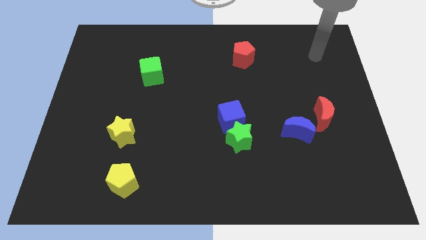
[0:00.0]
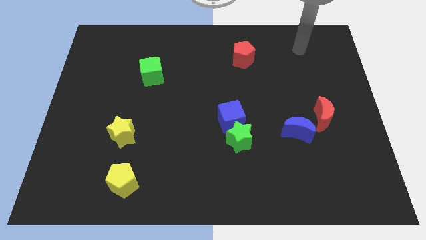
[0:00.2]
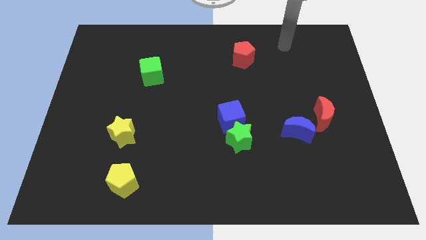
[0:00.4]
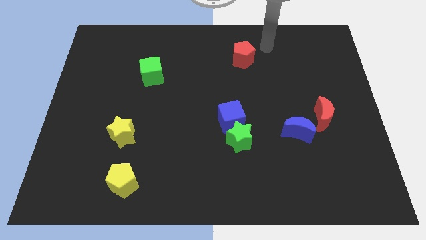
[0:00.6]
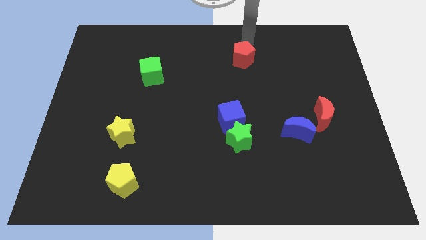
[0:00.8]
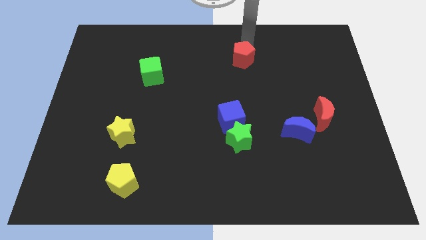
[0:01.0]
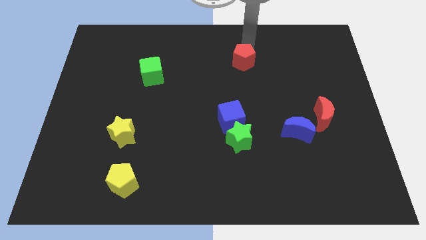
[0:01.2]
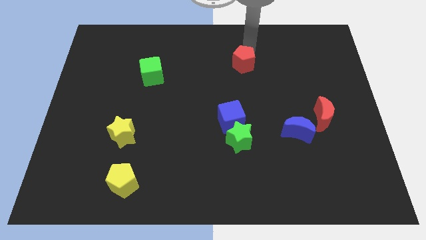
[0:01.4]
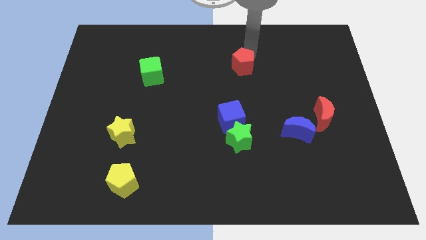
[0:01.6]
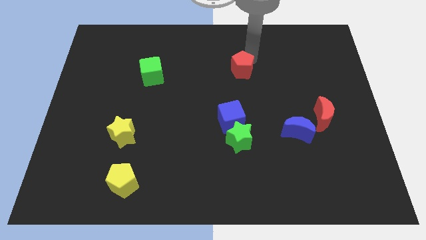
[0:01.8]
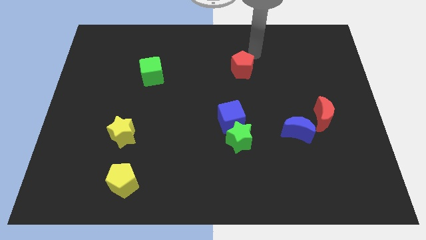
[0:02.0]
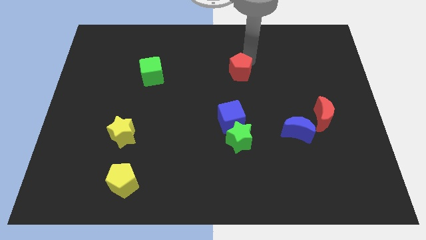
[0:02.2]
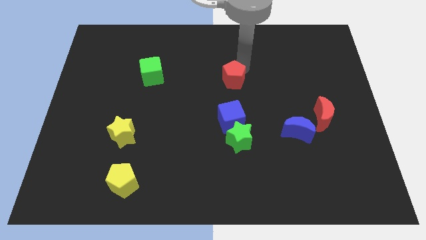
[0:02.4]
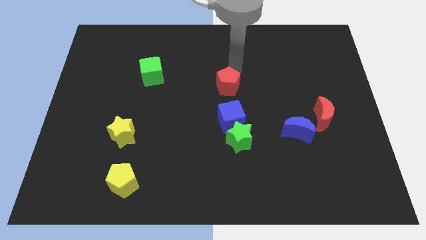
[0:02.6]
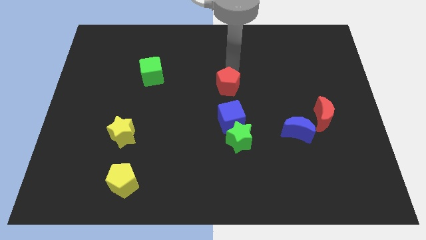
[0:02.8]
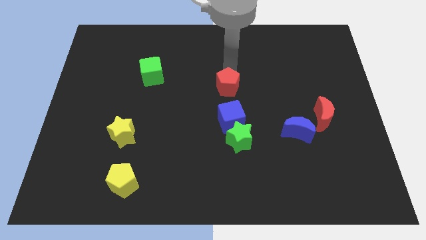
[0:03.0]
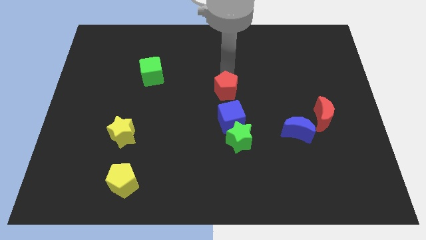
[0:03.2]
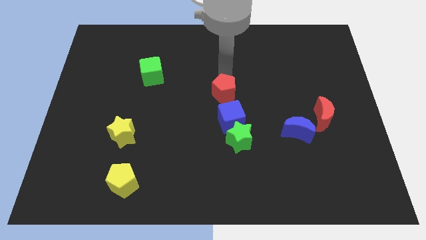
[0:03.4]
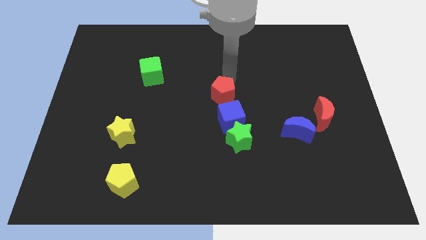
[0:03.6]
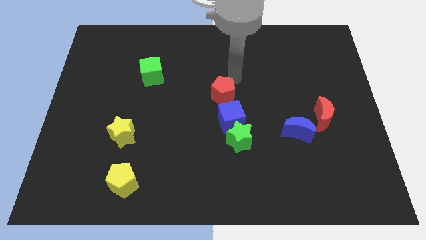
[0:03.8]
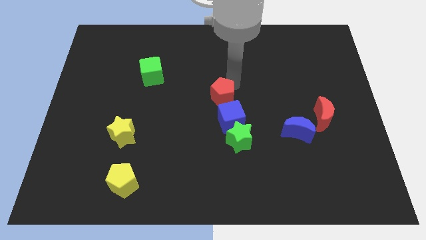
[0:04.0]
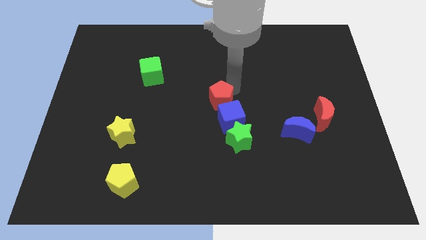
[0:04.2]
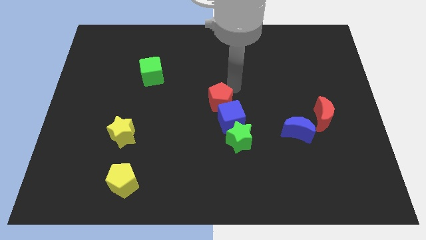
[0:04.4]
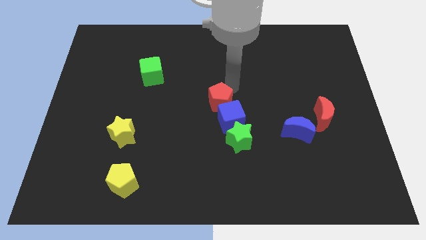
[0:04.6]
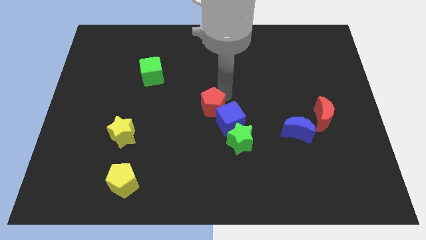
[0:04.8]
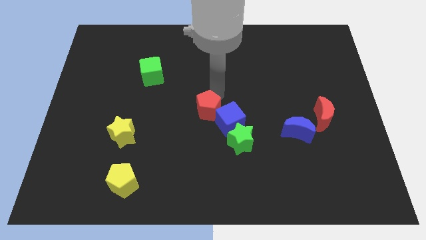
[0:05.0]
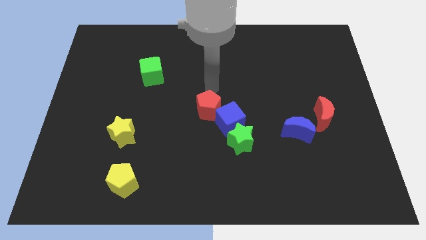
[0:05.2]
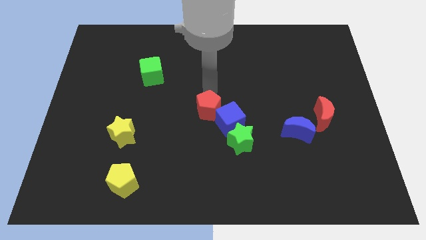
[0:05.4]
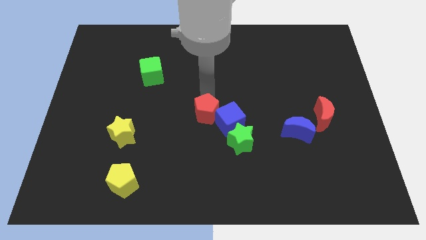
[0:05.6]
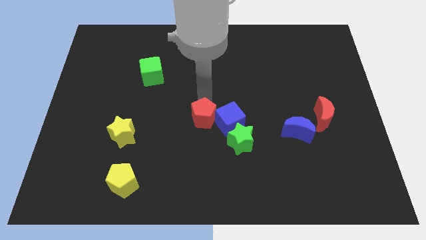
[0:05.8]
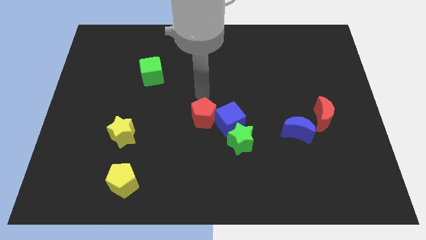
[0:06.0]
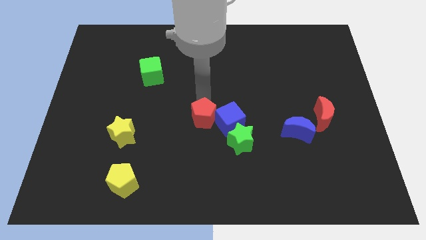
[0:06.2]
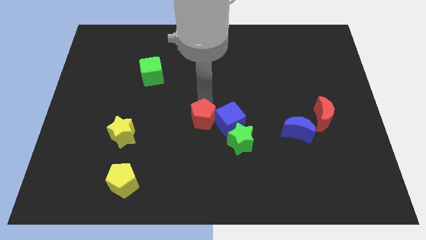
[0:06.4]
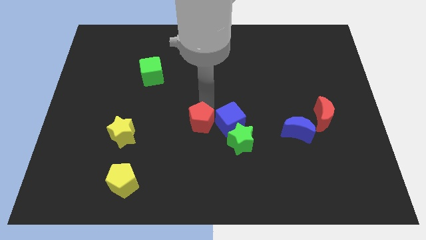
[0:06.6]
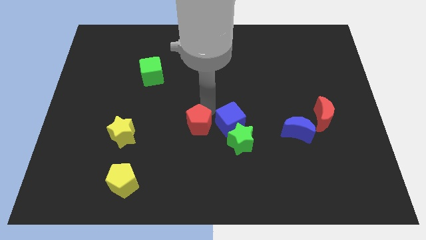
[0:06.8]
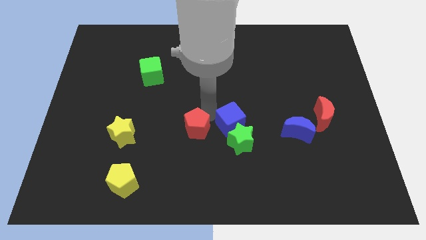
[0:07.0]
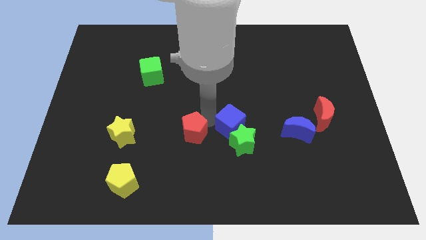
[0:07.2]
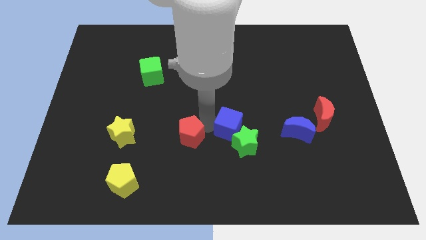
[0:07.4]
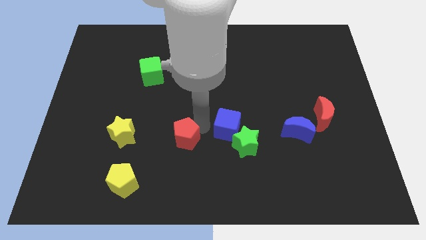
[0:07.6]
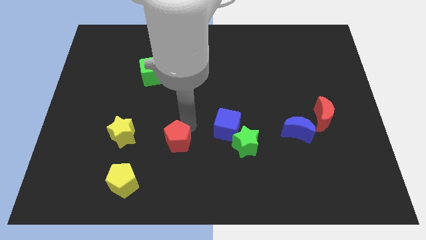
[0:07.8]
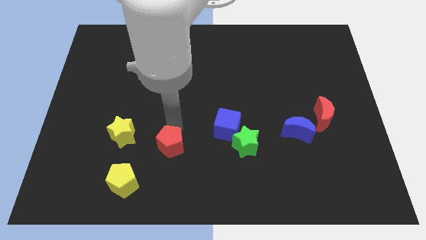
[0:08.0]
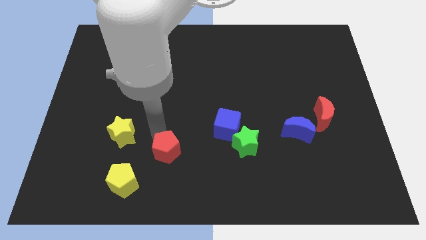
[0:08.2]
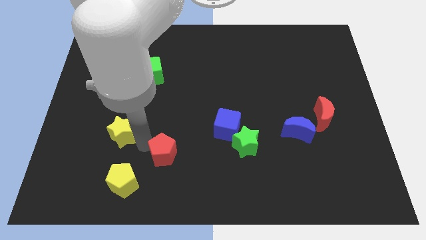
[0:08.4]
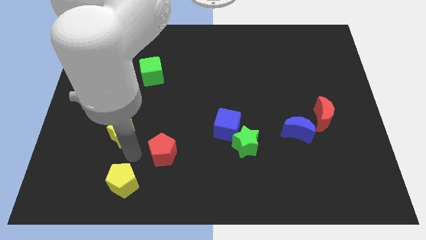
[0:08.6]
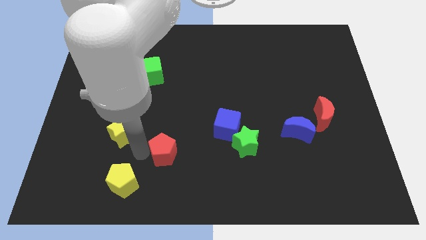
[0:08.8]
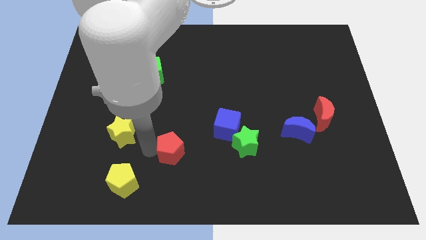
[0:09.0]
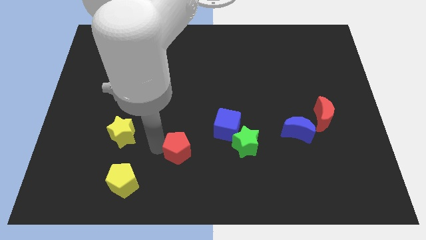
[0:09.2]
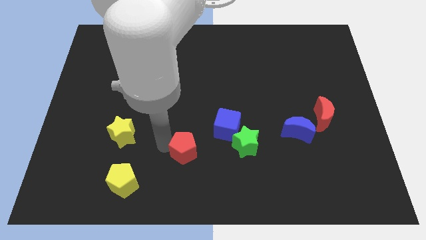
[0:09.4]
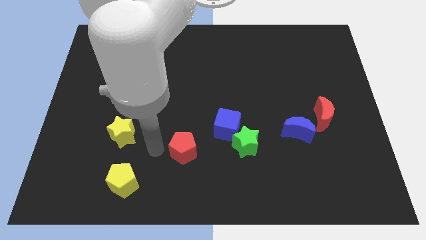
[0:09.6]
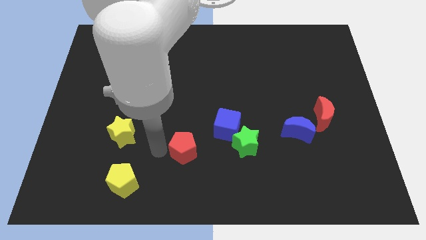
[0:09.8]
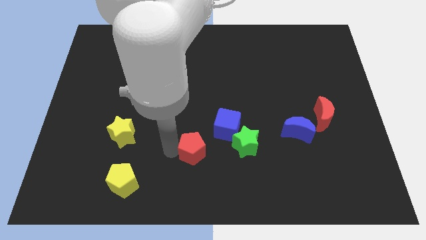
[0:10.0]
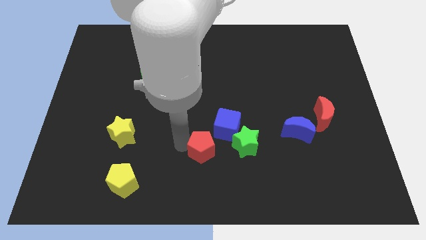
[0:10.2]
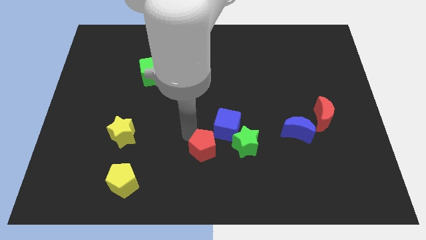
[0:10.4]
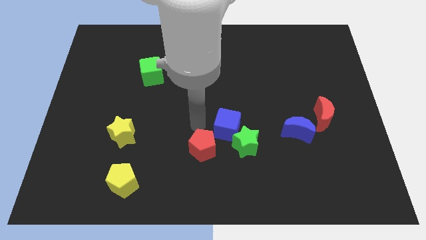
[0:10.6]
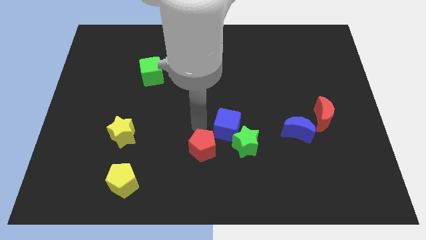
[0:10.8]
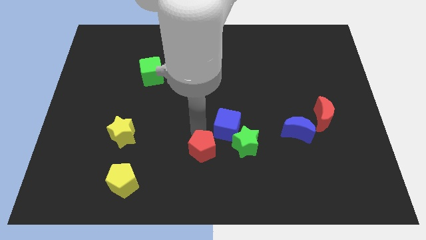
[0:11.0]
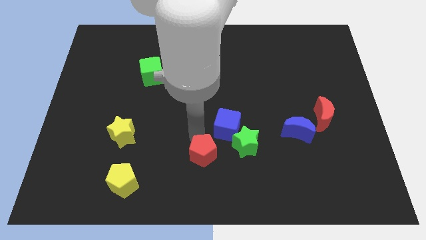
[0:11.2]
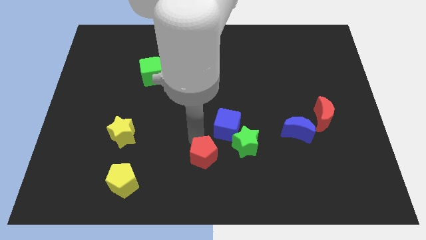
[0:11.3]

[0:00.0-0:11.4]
move the red pentagon to the bottom

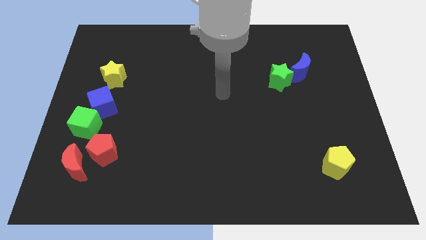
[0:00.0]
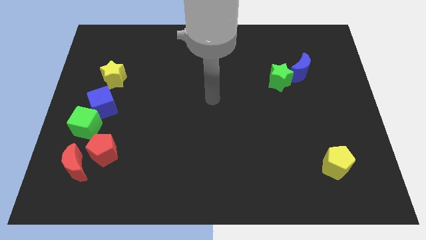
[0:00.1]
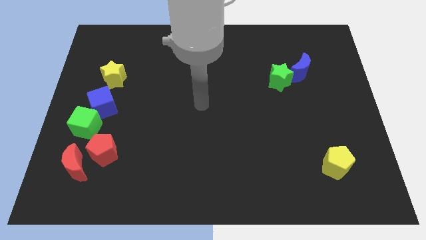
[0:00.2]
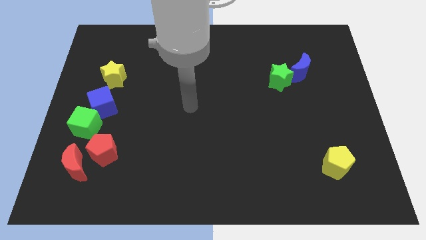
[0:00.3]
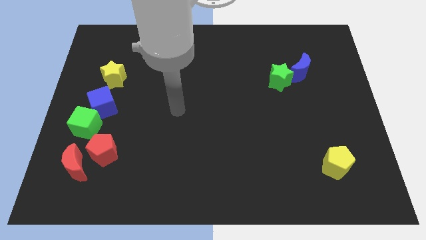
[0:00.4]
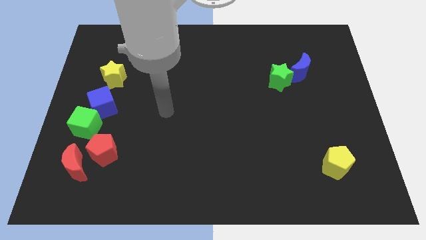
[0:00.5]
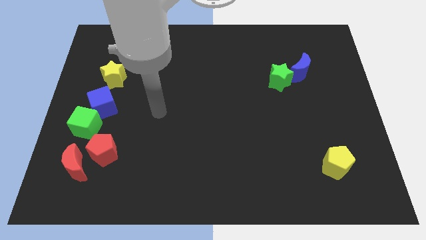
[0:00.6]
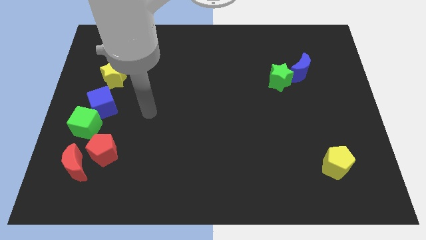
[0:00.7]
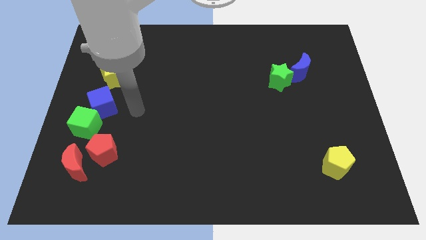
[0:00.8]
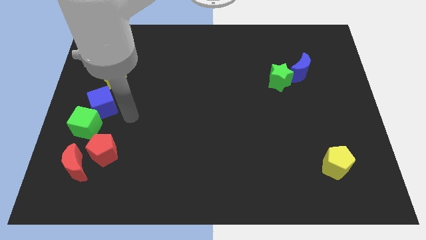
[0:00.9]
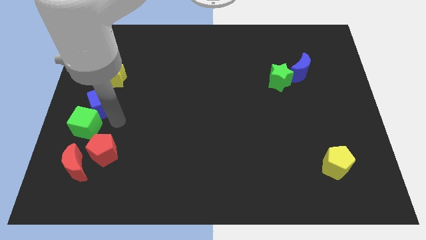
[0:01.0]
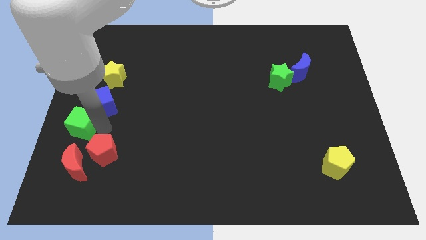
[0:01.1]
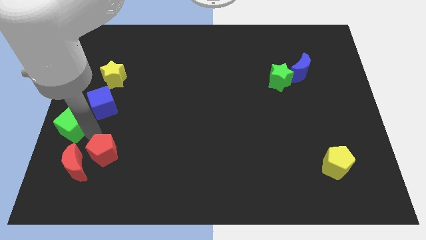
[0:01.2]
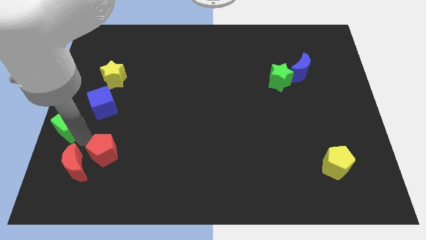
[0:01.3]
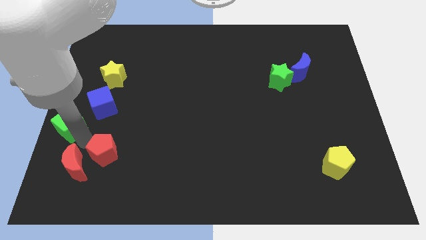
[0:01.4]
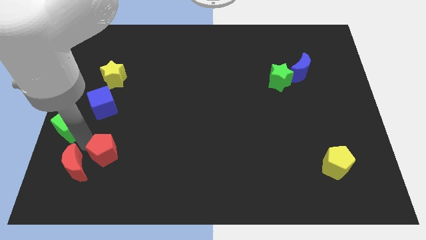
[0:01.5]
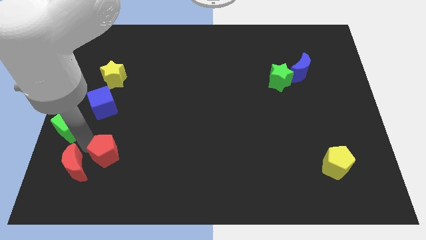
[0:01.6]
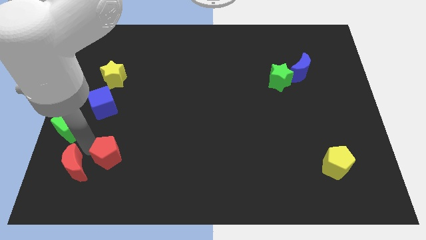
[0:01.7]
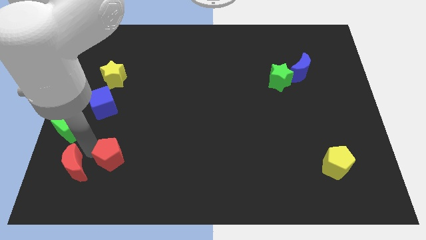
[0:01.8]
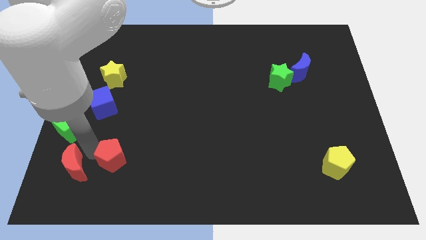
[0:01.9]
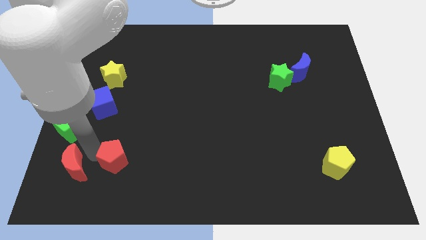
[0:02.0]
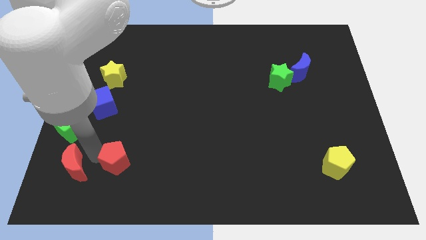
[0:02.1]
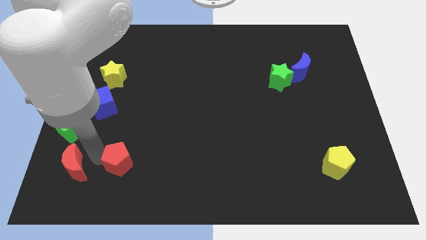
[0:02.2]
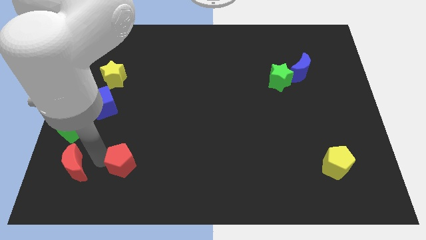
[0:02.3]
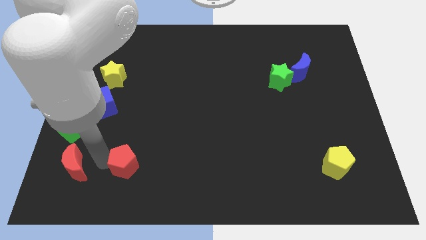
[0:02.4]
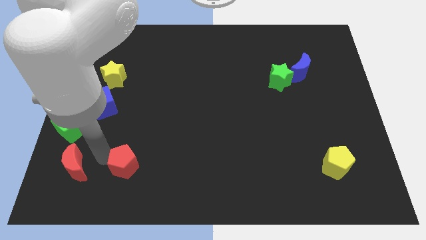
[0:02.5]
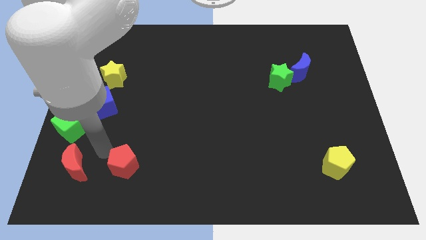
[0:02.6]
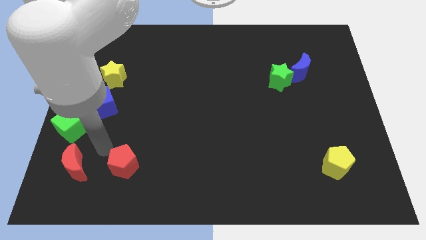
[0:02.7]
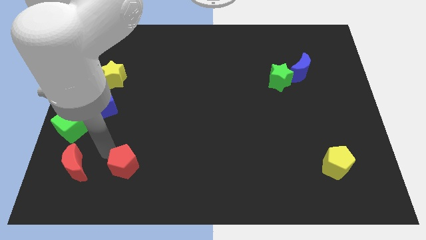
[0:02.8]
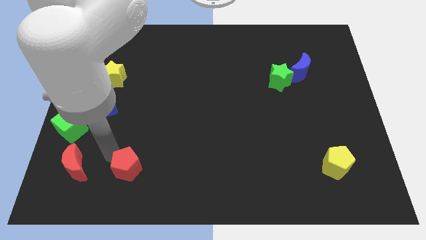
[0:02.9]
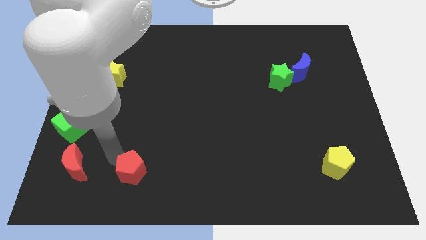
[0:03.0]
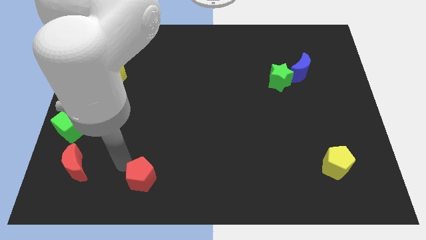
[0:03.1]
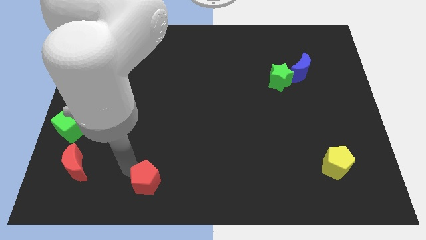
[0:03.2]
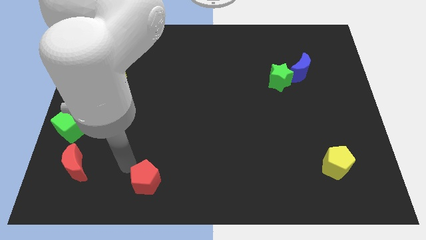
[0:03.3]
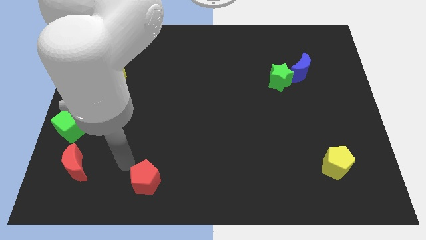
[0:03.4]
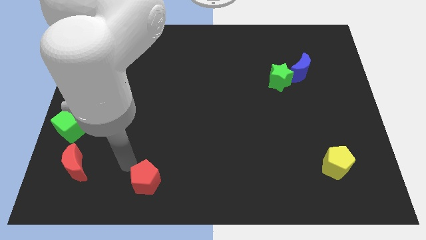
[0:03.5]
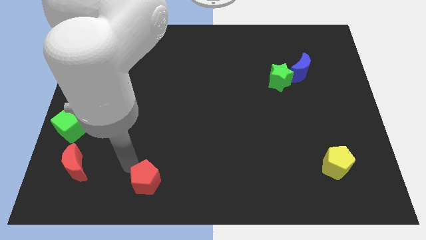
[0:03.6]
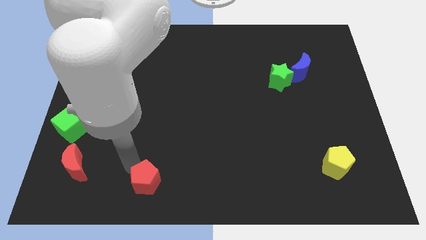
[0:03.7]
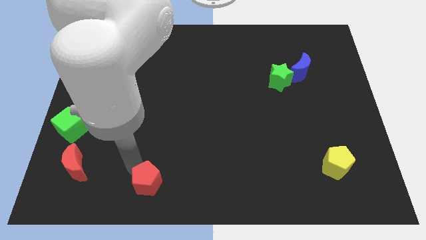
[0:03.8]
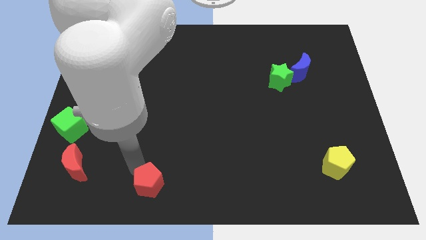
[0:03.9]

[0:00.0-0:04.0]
slide the red pentagon to the bottom side
